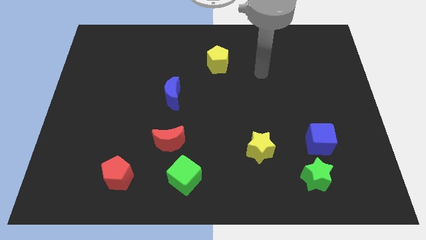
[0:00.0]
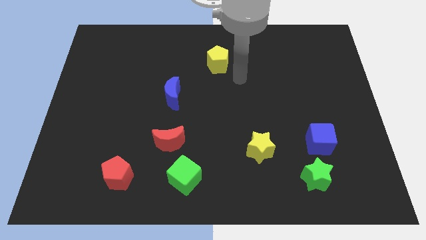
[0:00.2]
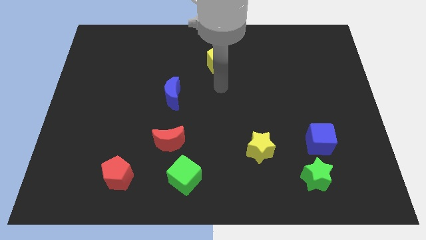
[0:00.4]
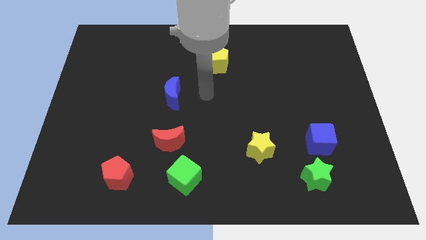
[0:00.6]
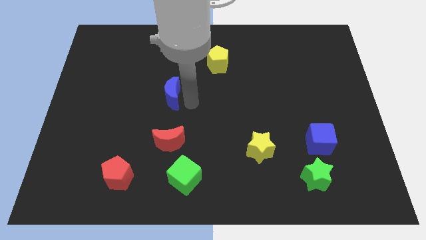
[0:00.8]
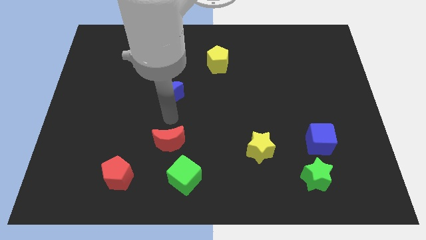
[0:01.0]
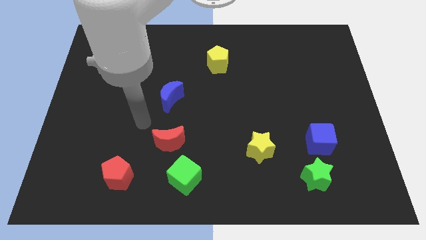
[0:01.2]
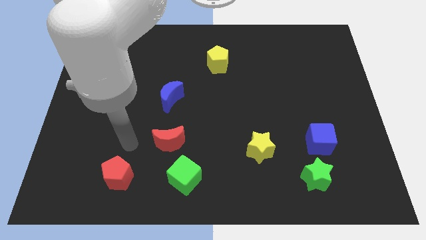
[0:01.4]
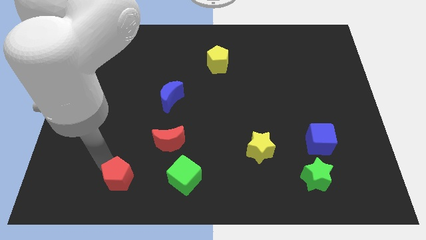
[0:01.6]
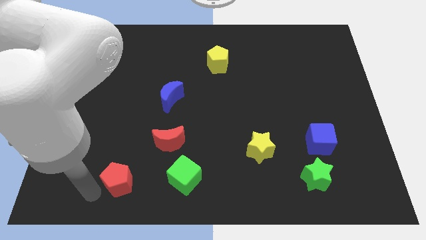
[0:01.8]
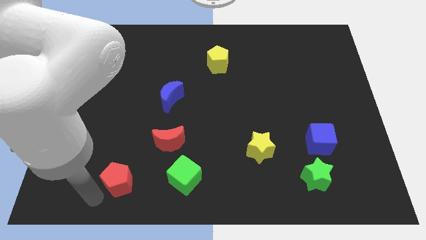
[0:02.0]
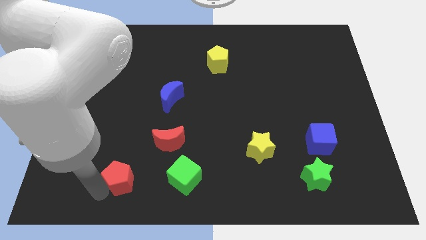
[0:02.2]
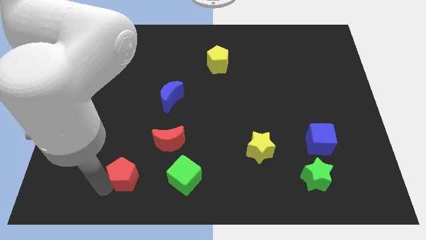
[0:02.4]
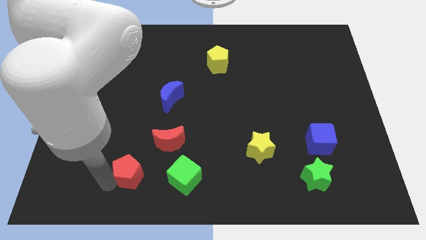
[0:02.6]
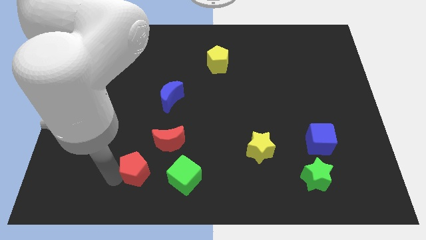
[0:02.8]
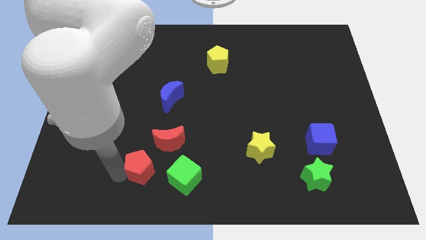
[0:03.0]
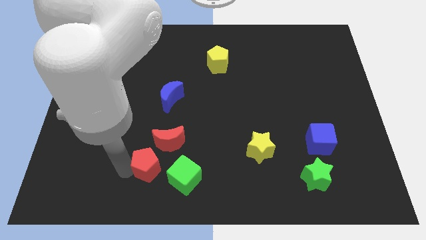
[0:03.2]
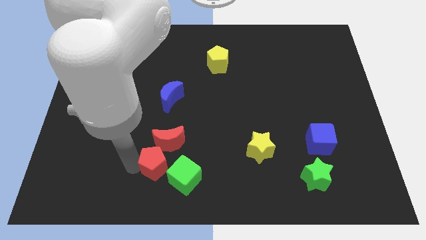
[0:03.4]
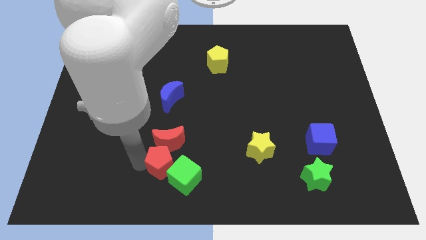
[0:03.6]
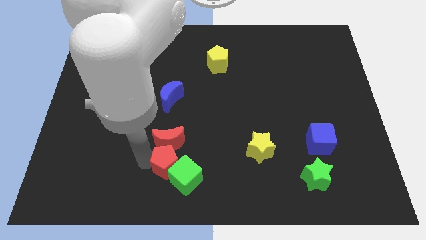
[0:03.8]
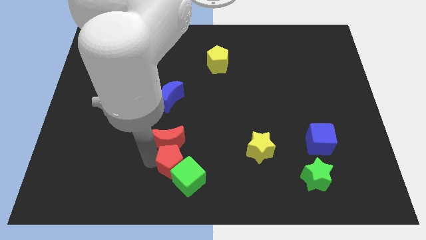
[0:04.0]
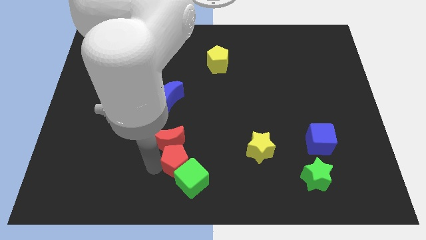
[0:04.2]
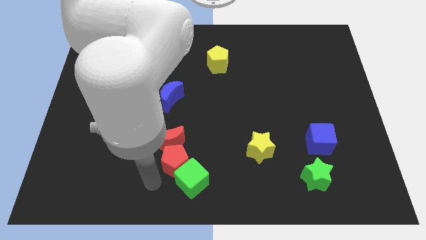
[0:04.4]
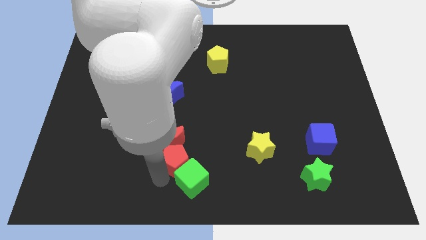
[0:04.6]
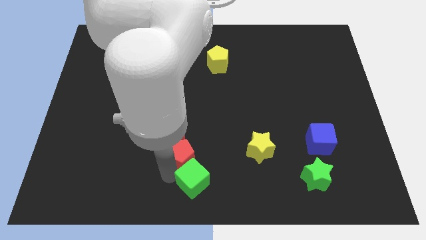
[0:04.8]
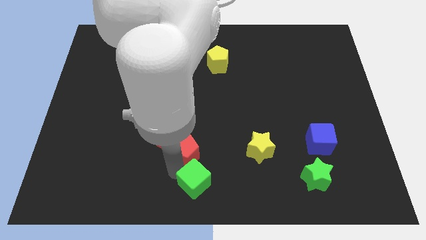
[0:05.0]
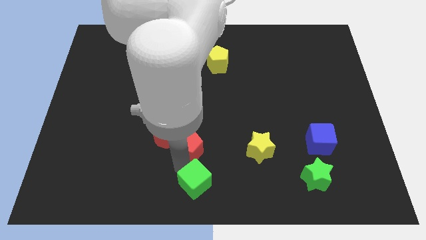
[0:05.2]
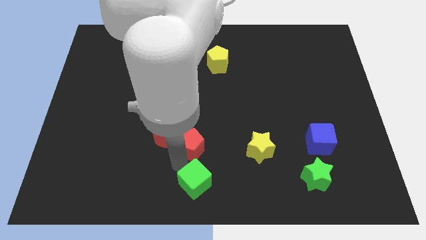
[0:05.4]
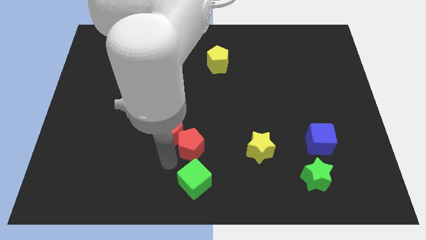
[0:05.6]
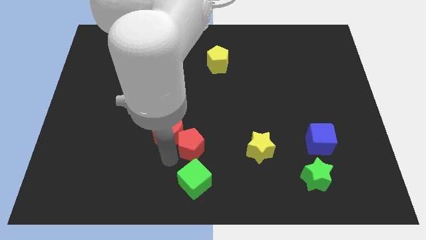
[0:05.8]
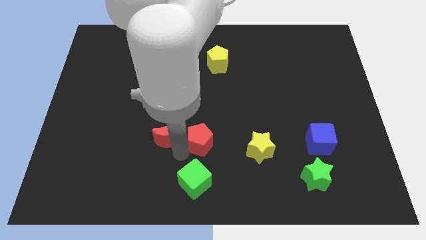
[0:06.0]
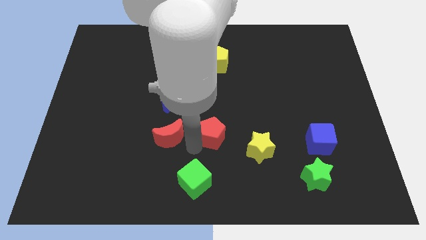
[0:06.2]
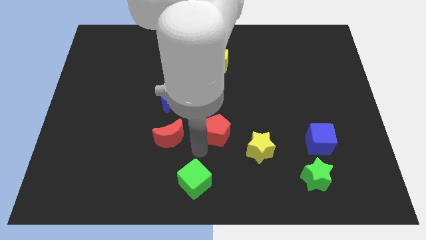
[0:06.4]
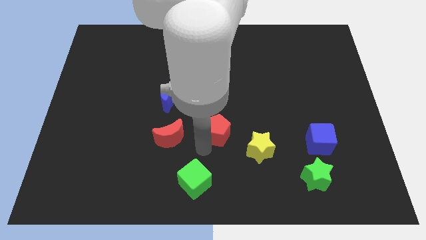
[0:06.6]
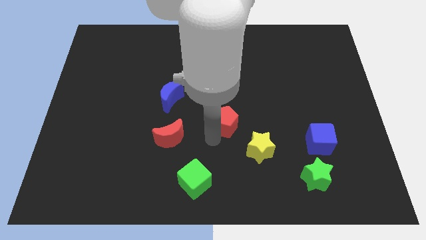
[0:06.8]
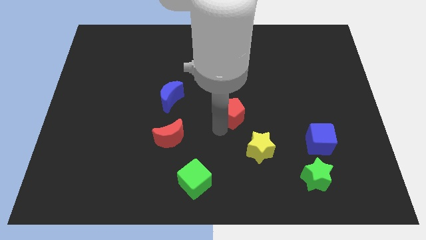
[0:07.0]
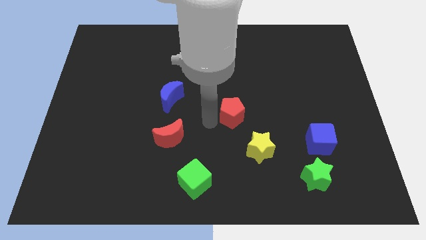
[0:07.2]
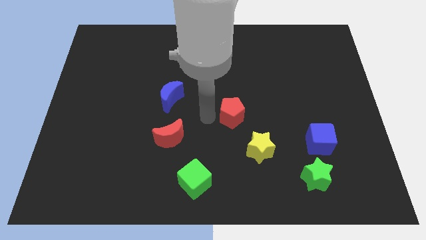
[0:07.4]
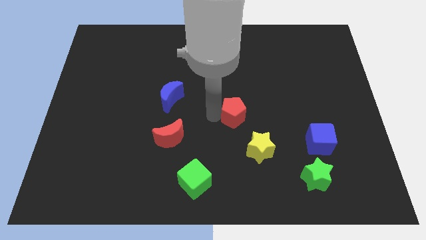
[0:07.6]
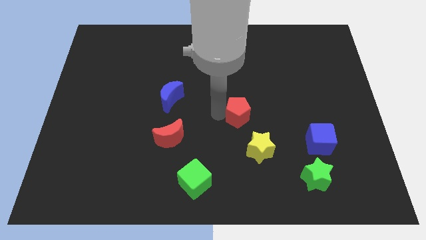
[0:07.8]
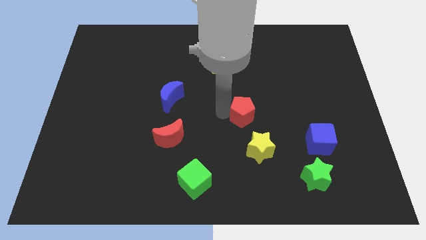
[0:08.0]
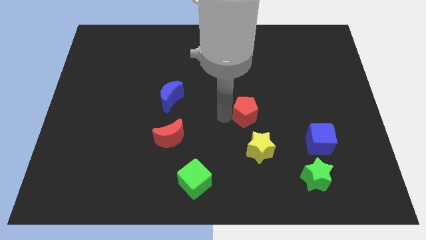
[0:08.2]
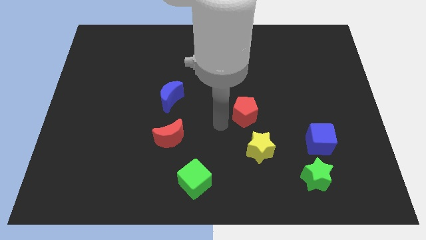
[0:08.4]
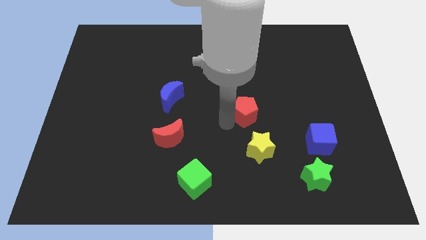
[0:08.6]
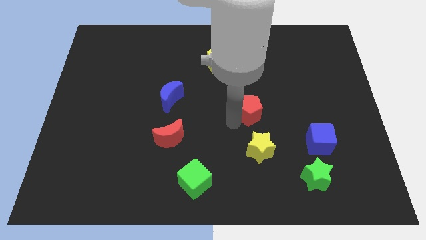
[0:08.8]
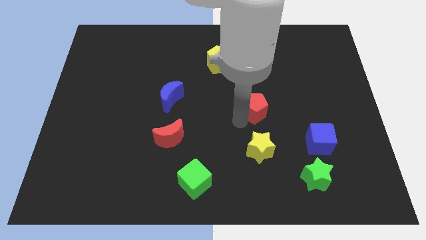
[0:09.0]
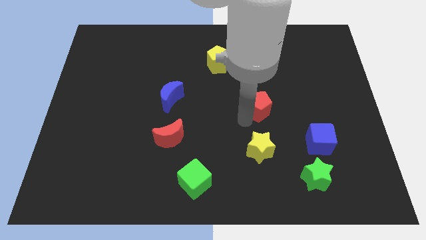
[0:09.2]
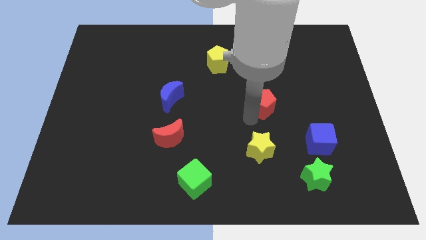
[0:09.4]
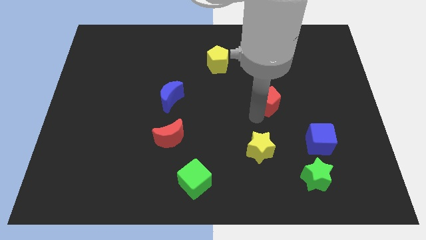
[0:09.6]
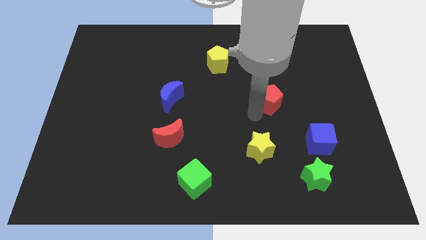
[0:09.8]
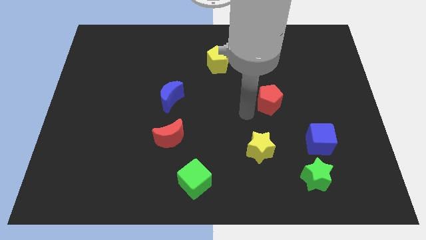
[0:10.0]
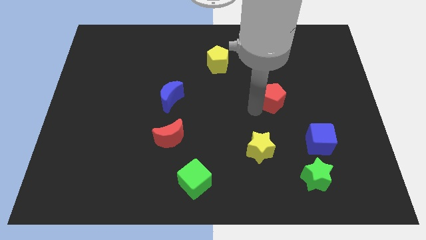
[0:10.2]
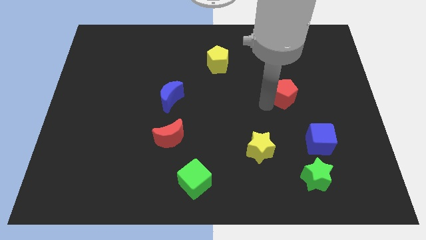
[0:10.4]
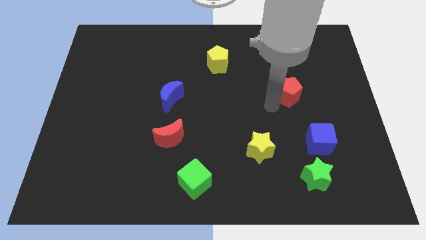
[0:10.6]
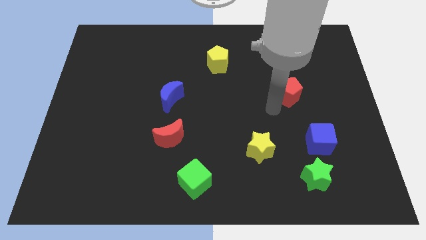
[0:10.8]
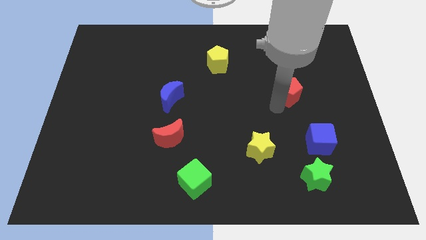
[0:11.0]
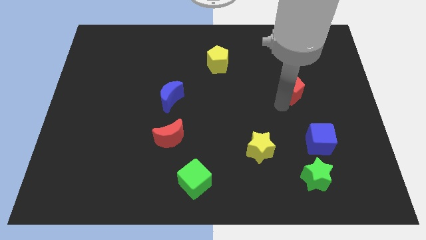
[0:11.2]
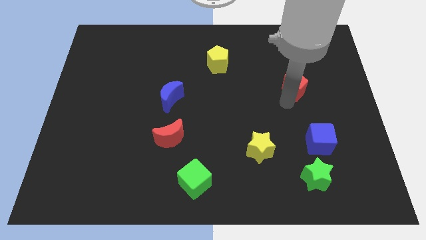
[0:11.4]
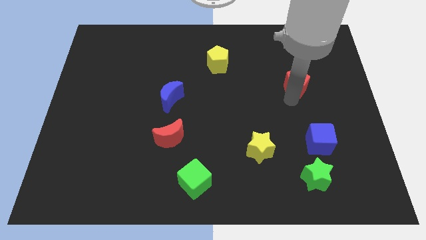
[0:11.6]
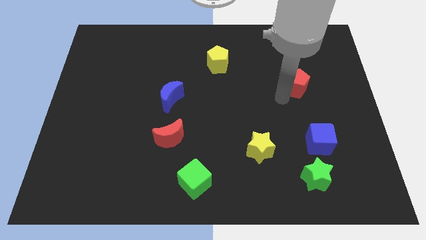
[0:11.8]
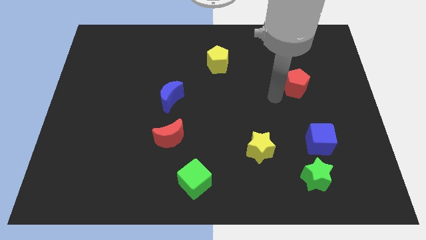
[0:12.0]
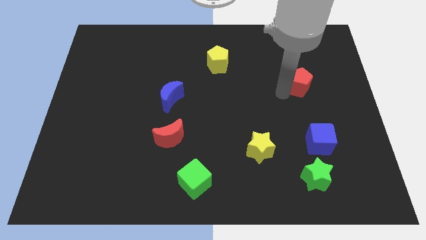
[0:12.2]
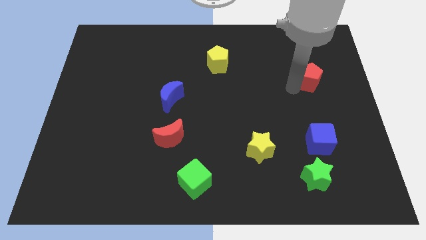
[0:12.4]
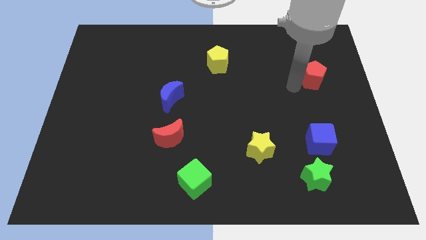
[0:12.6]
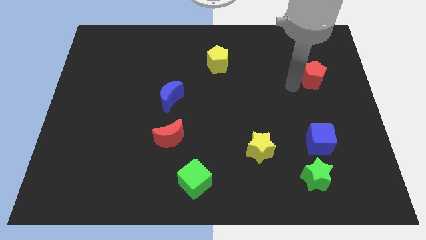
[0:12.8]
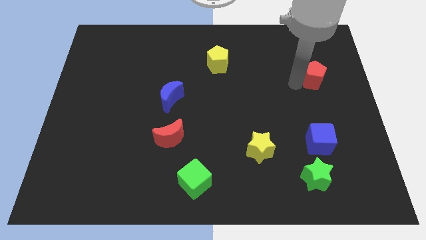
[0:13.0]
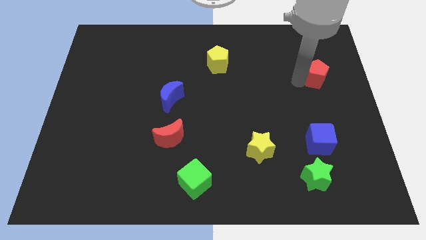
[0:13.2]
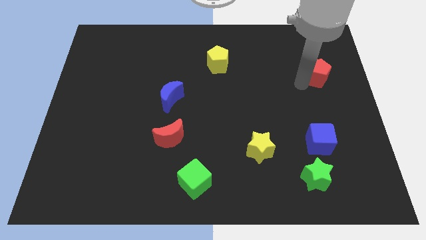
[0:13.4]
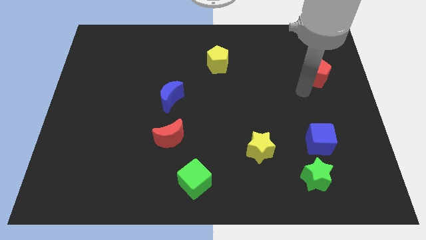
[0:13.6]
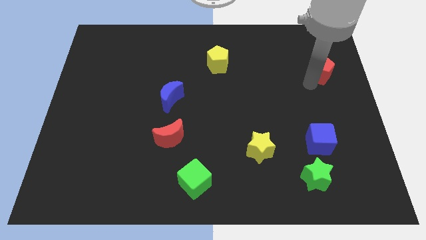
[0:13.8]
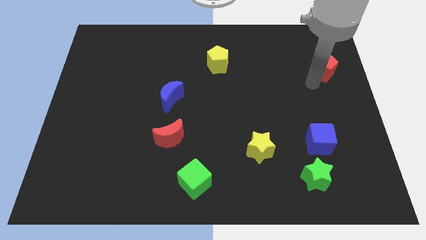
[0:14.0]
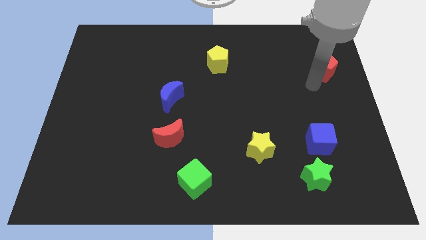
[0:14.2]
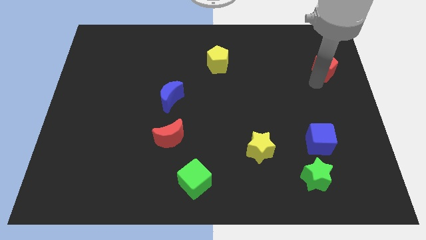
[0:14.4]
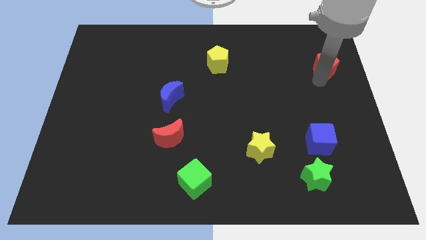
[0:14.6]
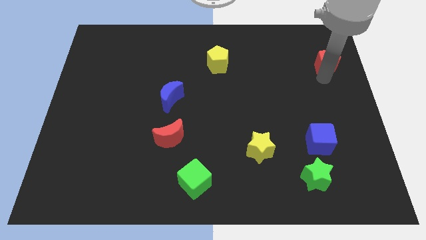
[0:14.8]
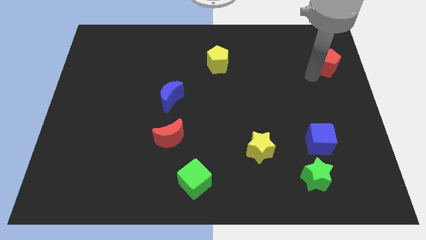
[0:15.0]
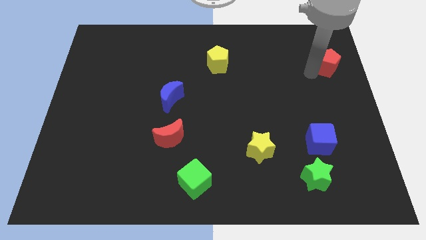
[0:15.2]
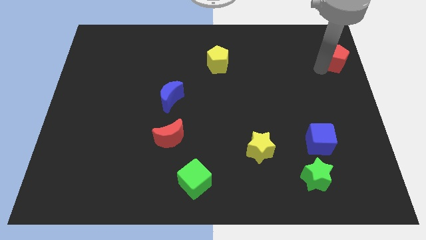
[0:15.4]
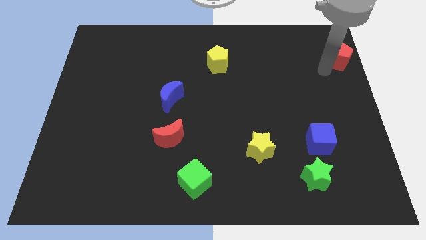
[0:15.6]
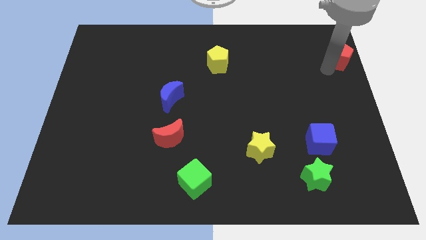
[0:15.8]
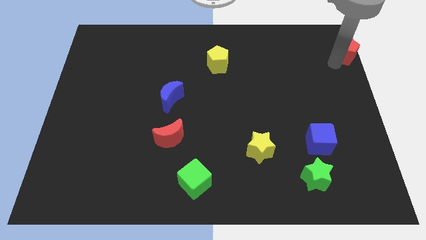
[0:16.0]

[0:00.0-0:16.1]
move the red pentagon to the top right
